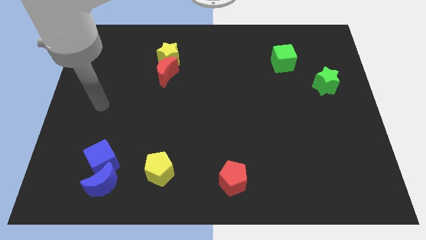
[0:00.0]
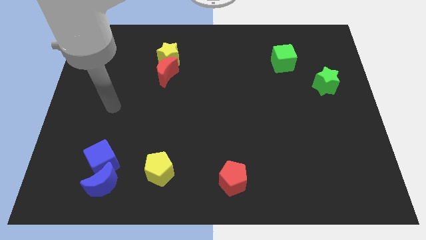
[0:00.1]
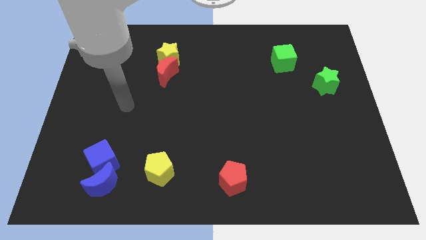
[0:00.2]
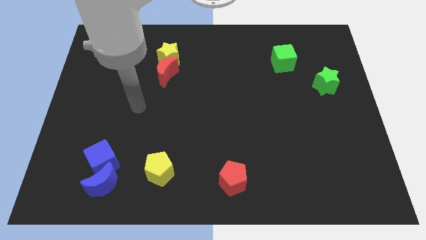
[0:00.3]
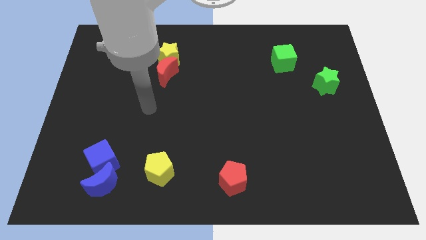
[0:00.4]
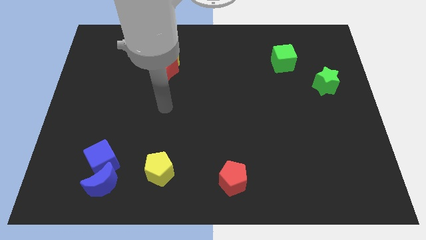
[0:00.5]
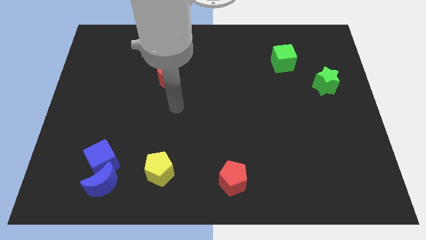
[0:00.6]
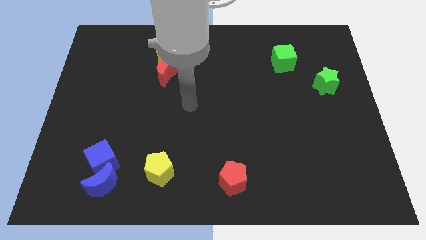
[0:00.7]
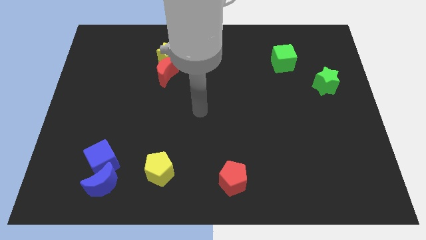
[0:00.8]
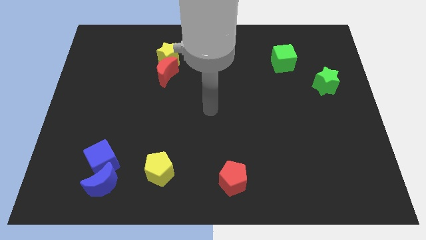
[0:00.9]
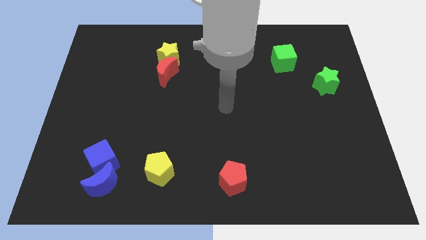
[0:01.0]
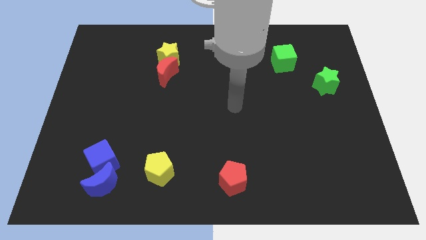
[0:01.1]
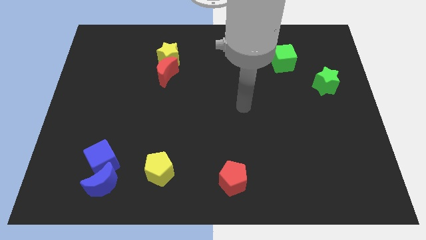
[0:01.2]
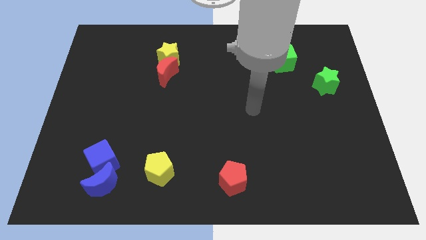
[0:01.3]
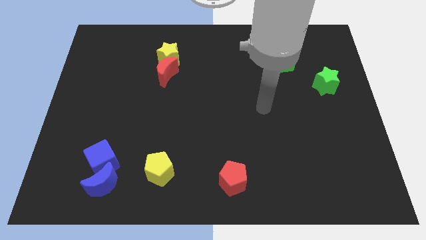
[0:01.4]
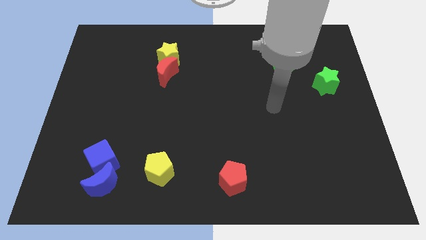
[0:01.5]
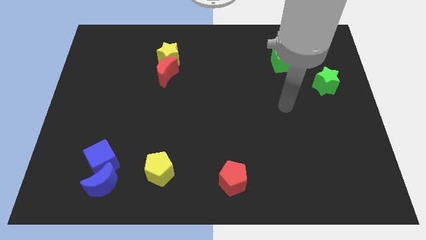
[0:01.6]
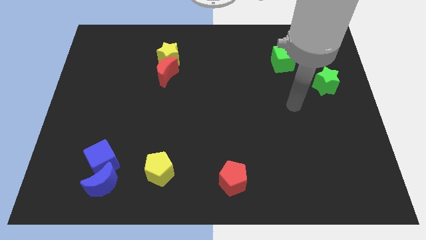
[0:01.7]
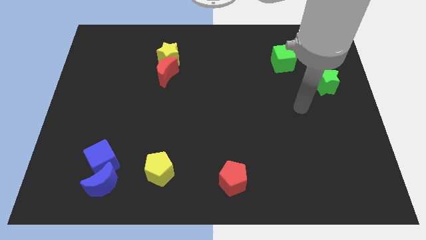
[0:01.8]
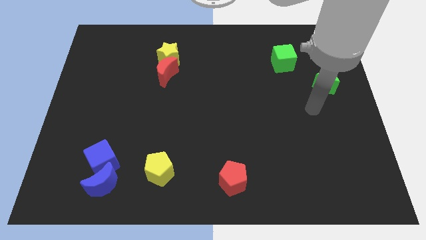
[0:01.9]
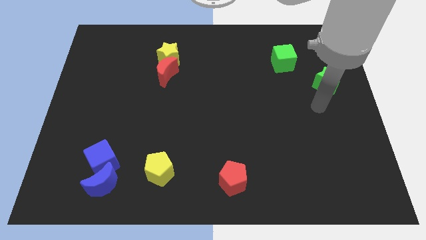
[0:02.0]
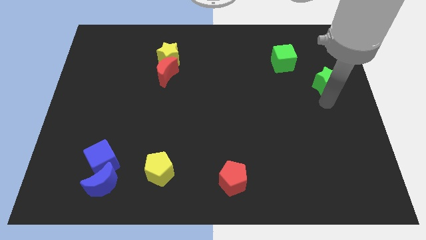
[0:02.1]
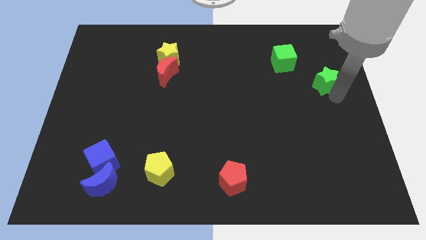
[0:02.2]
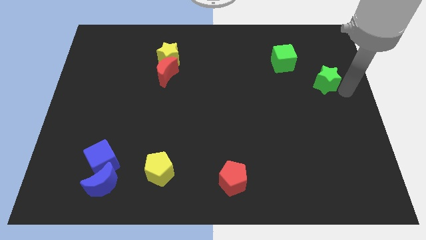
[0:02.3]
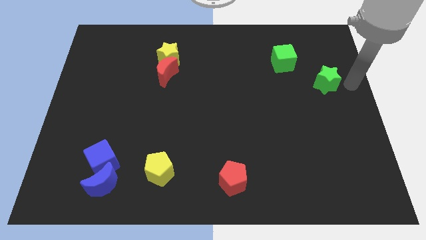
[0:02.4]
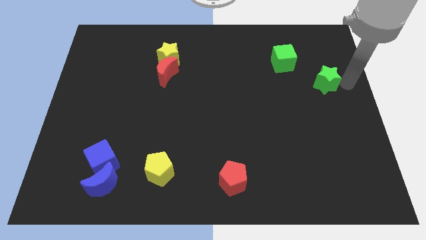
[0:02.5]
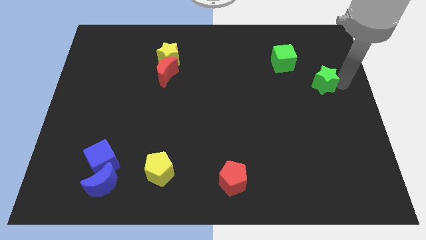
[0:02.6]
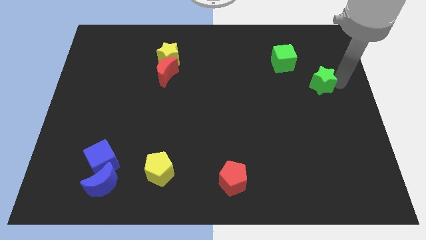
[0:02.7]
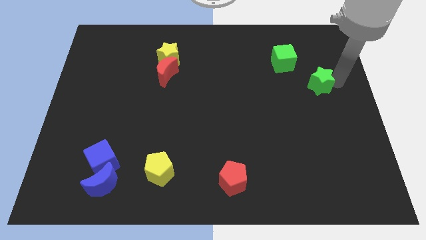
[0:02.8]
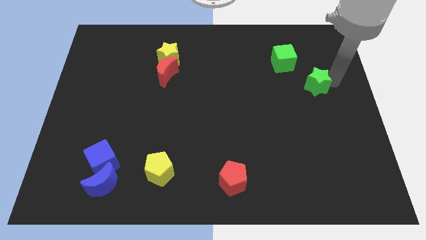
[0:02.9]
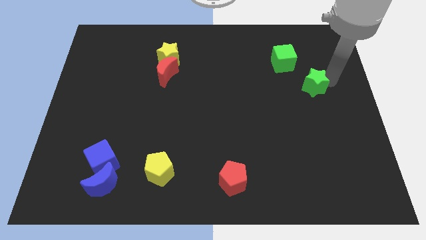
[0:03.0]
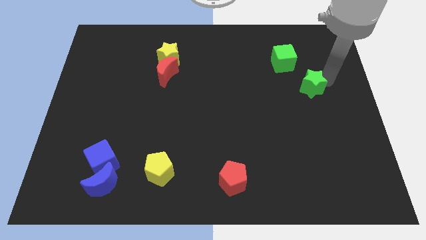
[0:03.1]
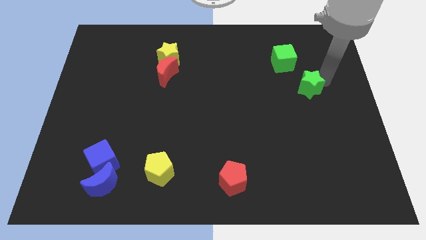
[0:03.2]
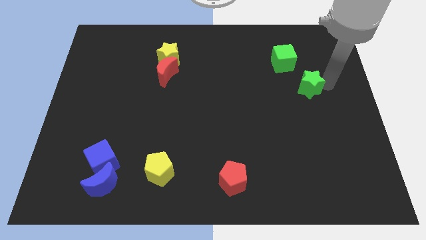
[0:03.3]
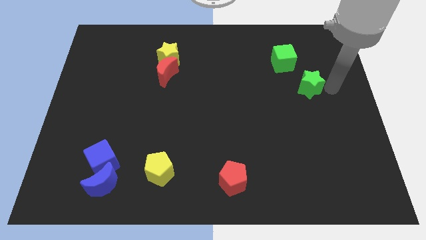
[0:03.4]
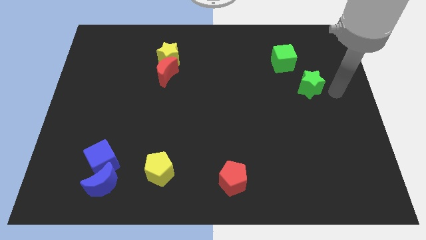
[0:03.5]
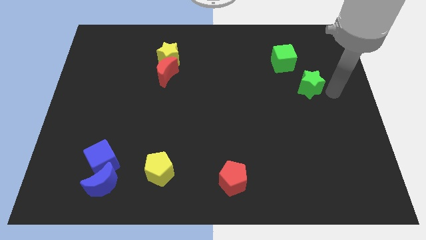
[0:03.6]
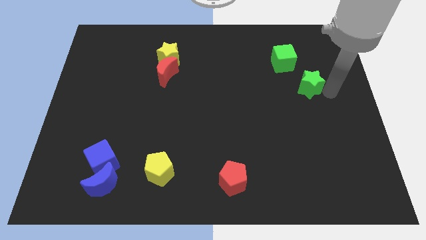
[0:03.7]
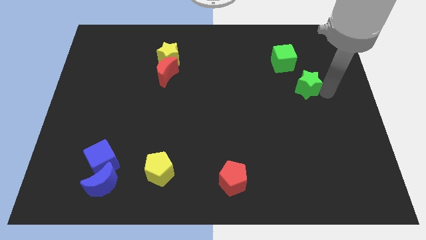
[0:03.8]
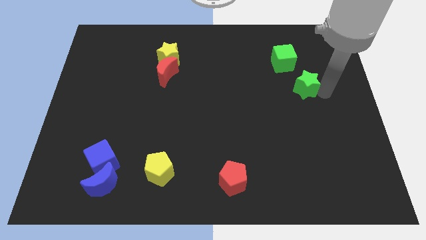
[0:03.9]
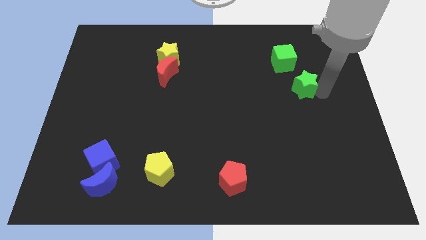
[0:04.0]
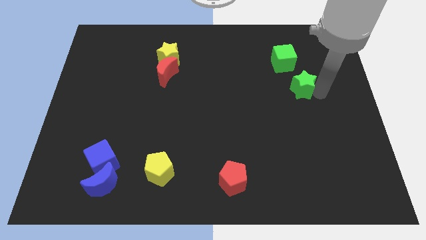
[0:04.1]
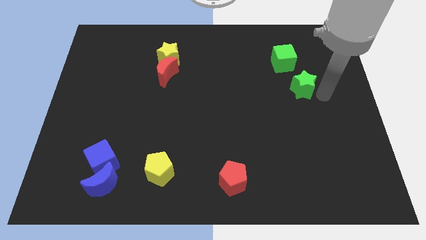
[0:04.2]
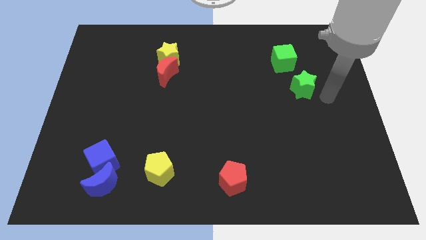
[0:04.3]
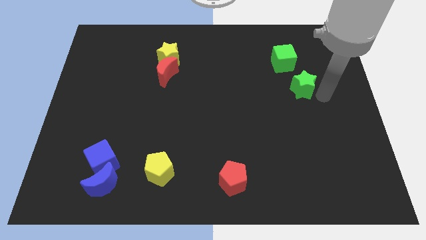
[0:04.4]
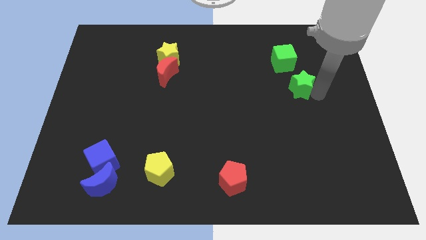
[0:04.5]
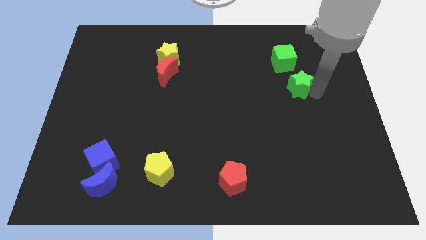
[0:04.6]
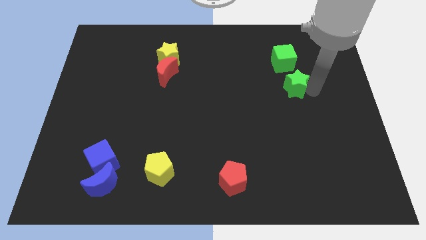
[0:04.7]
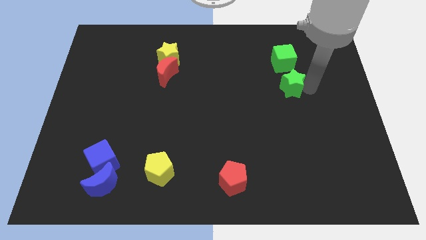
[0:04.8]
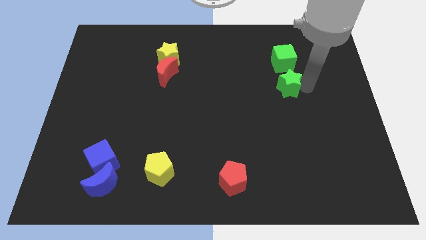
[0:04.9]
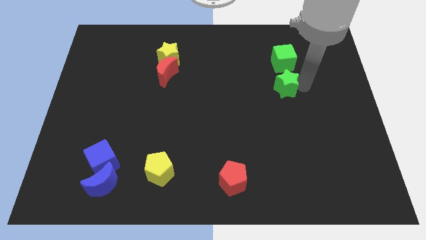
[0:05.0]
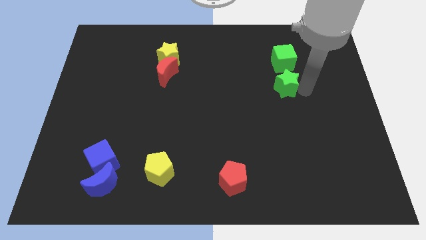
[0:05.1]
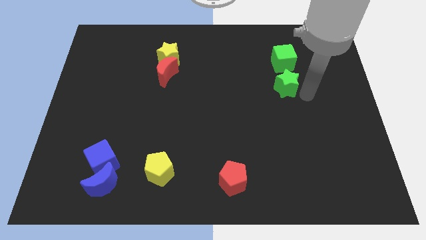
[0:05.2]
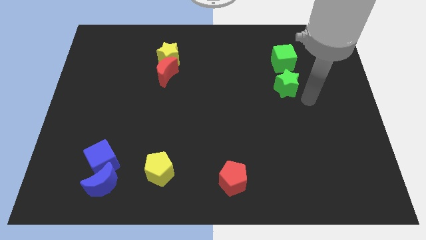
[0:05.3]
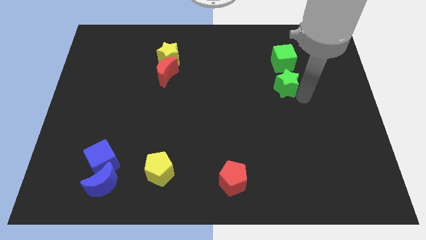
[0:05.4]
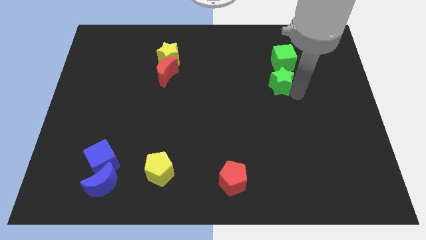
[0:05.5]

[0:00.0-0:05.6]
slide the green star to the bottom left side of the green cube

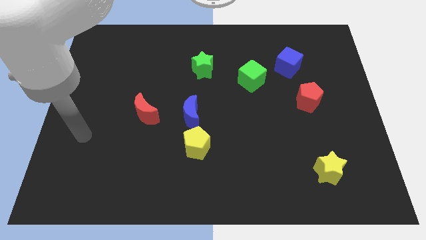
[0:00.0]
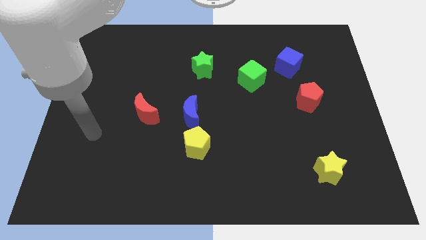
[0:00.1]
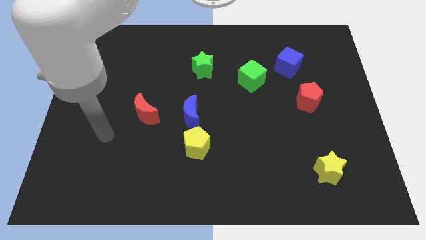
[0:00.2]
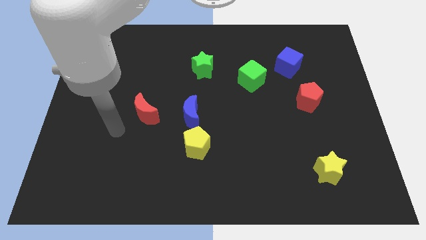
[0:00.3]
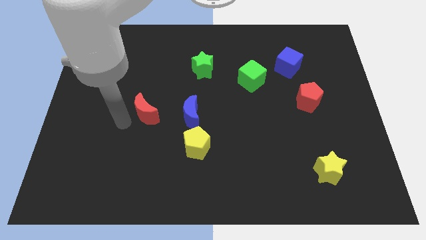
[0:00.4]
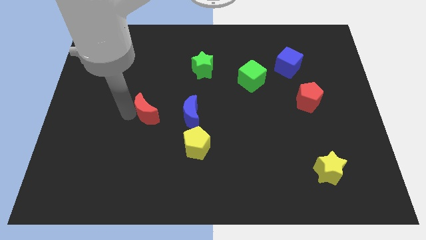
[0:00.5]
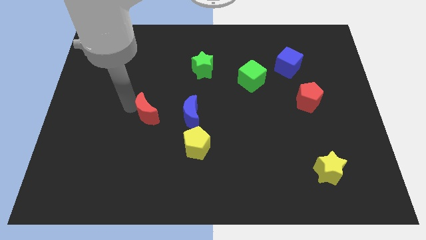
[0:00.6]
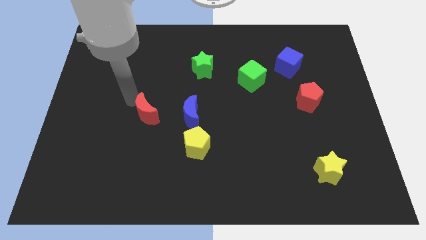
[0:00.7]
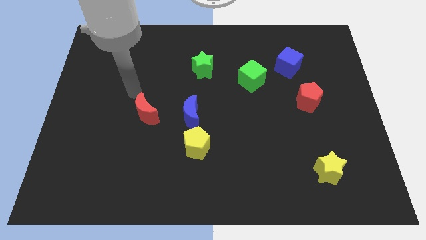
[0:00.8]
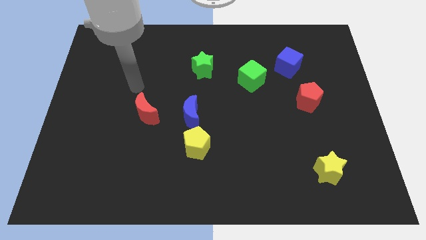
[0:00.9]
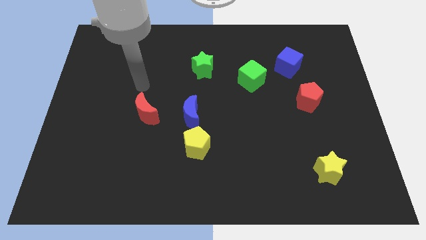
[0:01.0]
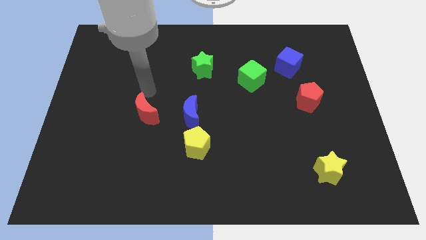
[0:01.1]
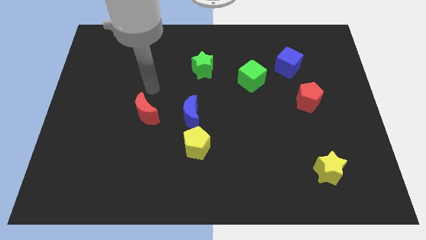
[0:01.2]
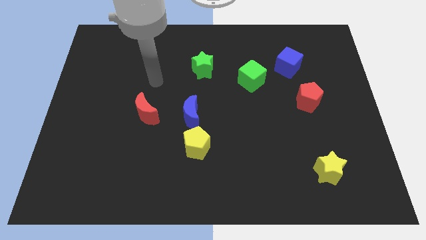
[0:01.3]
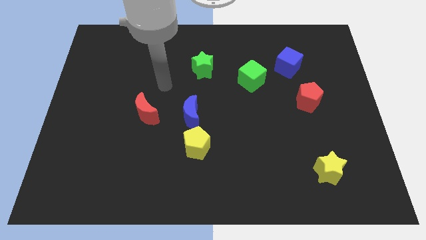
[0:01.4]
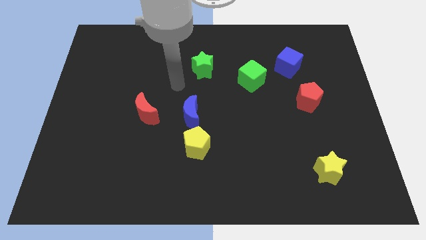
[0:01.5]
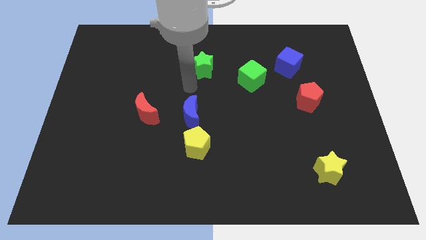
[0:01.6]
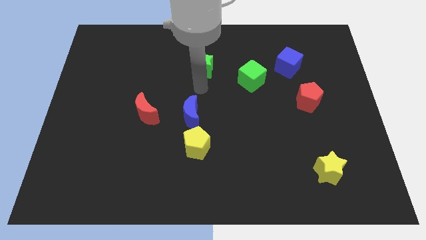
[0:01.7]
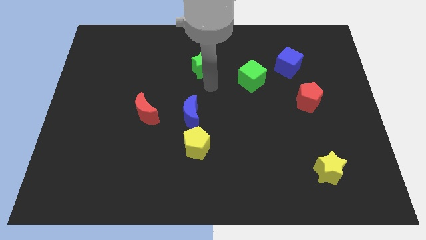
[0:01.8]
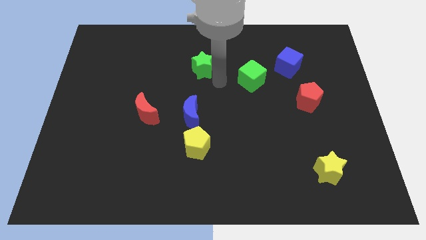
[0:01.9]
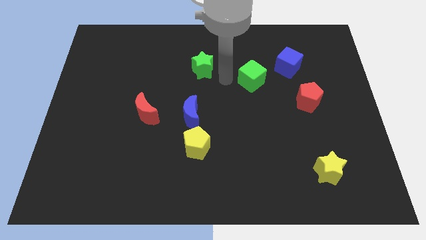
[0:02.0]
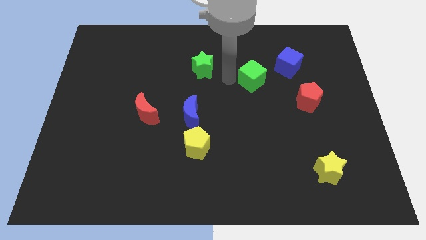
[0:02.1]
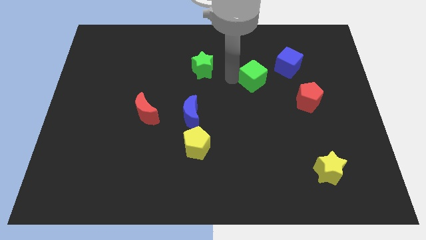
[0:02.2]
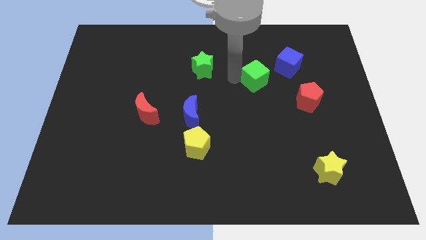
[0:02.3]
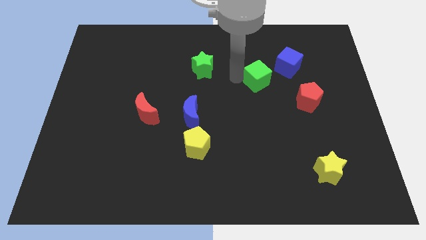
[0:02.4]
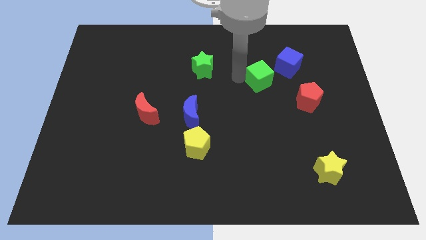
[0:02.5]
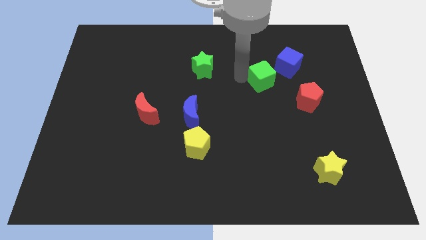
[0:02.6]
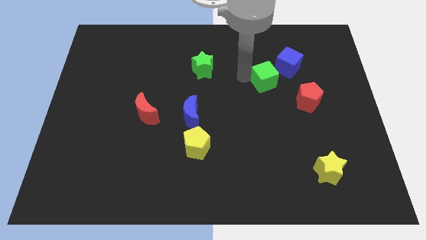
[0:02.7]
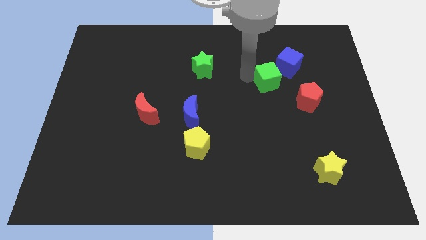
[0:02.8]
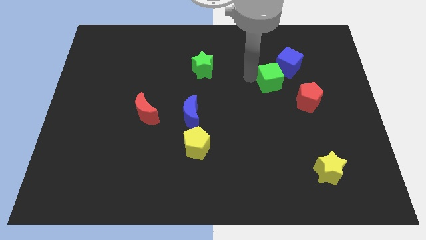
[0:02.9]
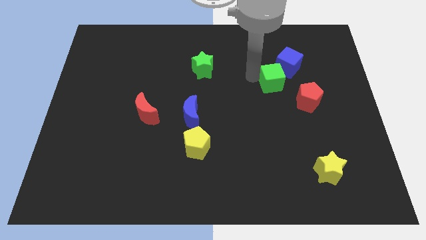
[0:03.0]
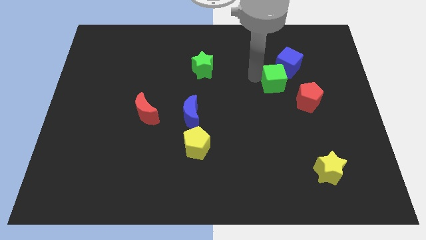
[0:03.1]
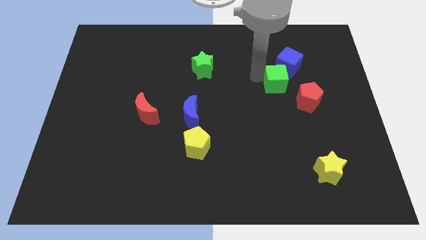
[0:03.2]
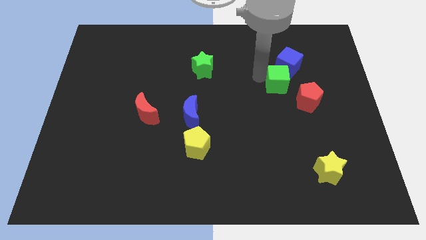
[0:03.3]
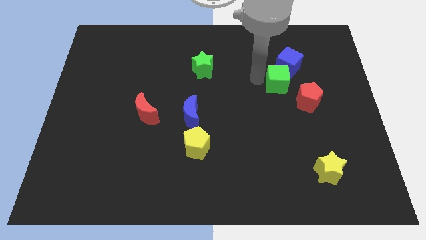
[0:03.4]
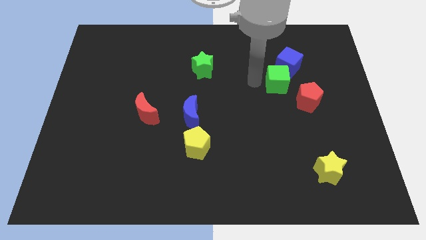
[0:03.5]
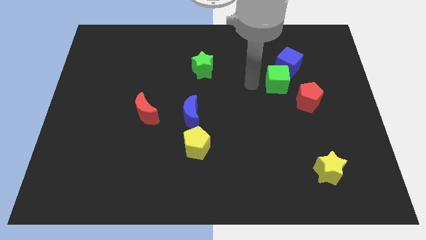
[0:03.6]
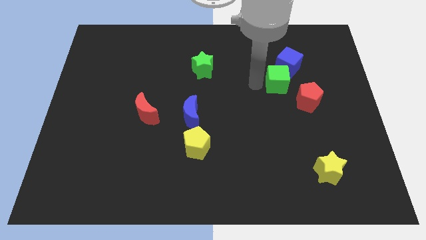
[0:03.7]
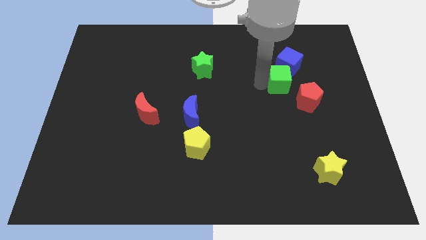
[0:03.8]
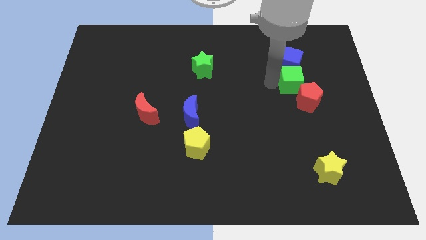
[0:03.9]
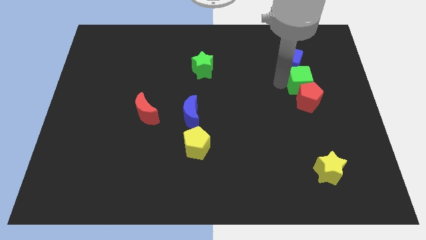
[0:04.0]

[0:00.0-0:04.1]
put the green cube to the top right side of the red pentagon
